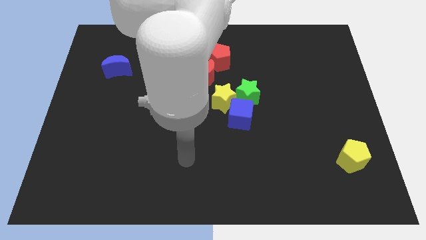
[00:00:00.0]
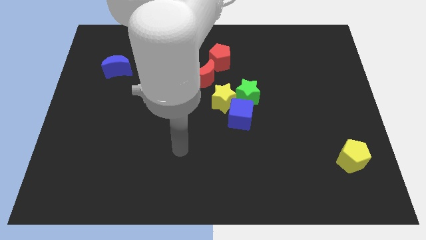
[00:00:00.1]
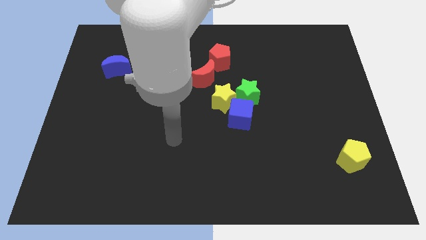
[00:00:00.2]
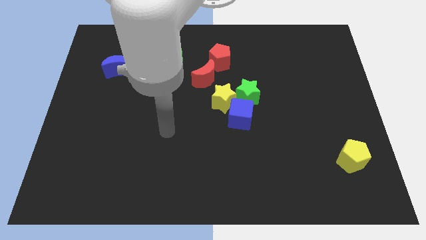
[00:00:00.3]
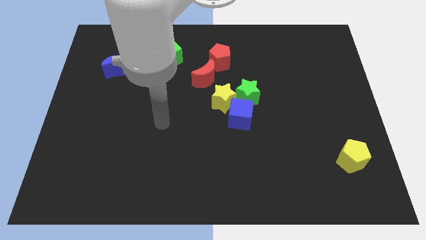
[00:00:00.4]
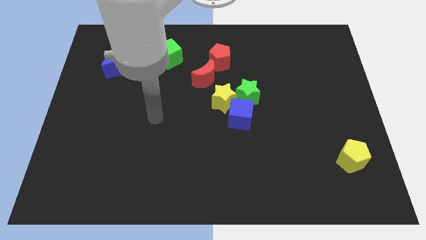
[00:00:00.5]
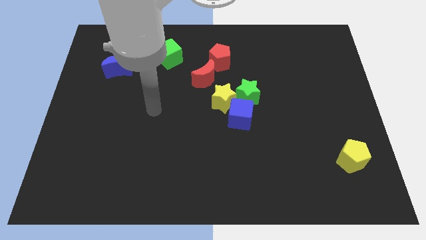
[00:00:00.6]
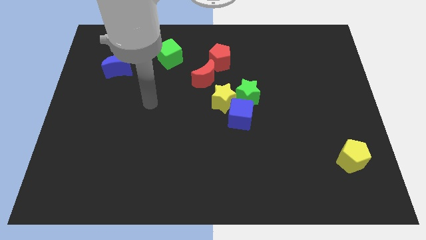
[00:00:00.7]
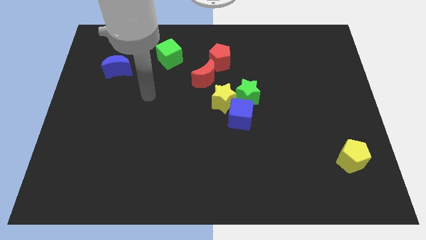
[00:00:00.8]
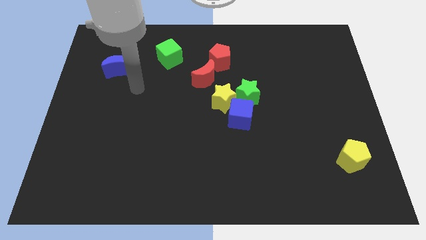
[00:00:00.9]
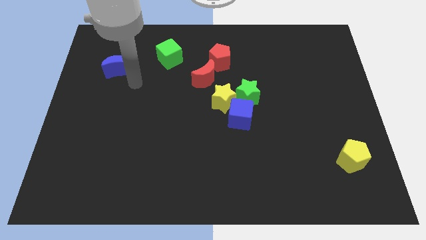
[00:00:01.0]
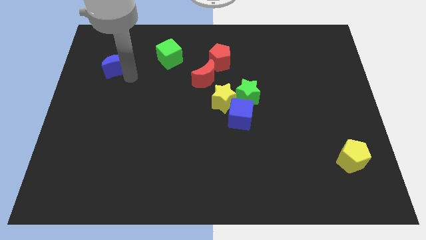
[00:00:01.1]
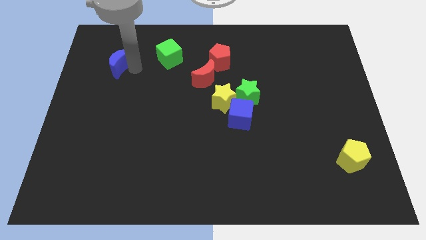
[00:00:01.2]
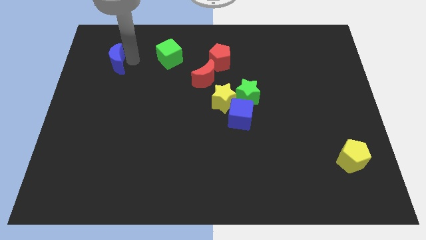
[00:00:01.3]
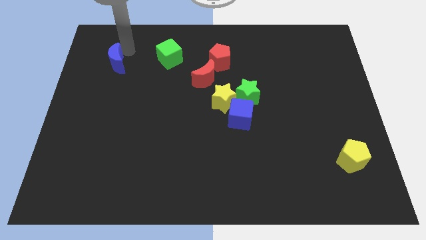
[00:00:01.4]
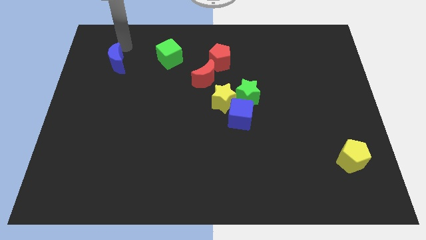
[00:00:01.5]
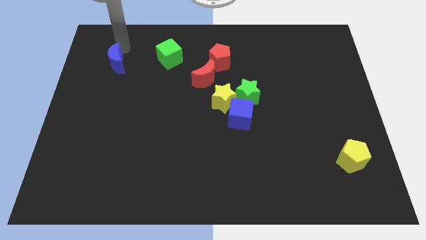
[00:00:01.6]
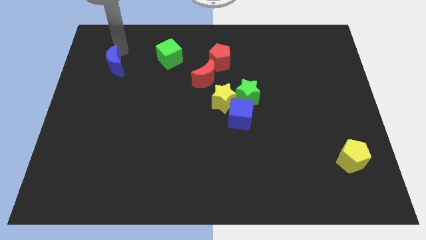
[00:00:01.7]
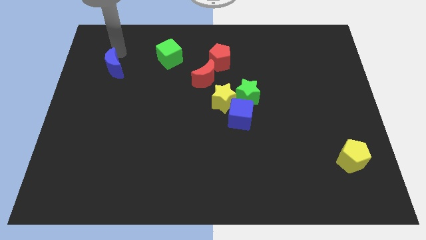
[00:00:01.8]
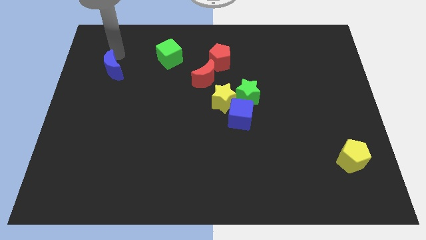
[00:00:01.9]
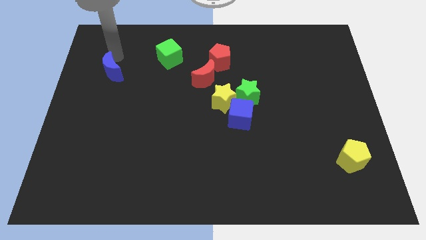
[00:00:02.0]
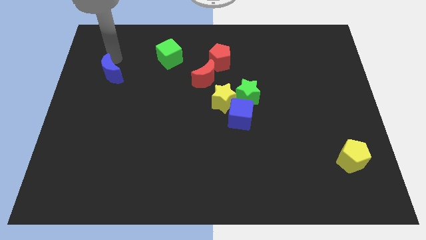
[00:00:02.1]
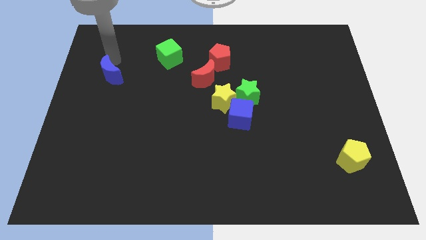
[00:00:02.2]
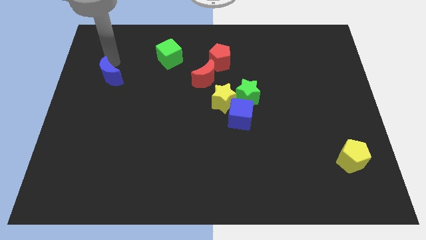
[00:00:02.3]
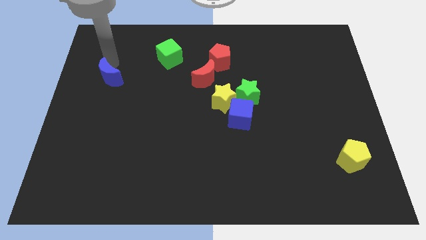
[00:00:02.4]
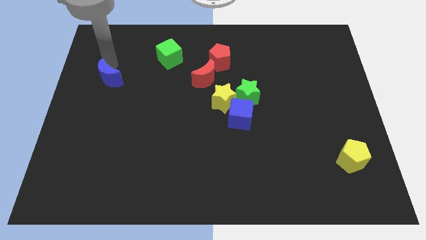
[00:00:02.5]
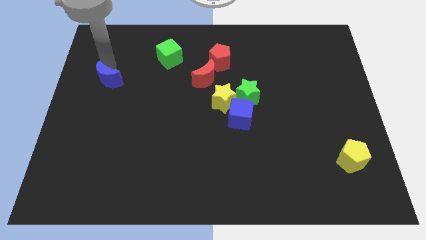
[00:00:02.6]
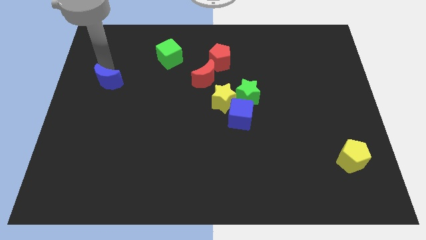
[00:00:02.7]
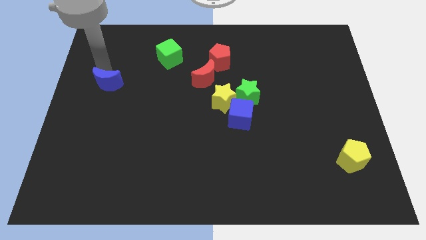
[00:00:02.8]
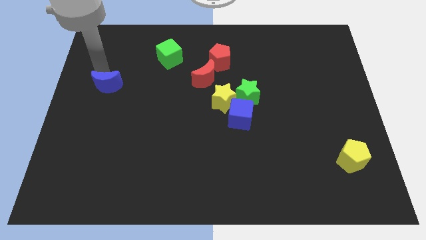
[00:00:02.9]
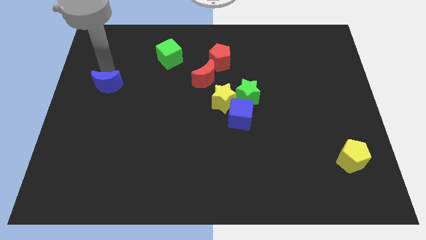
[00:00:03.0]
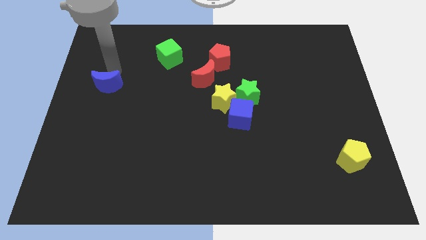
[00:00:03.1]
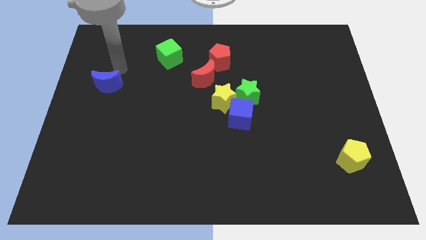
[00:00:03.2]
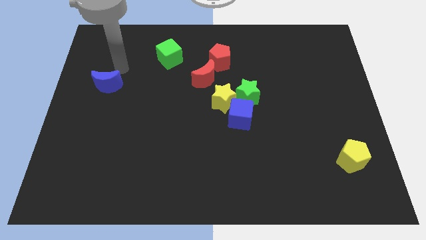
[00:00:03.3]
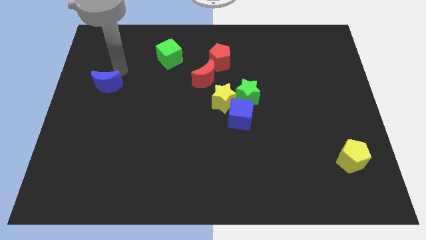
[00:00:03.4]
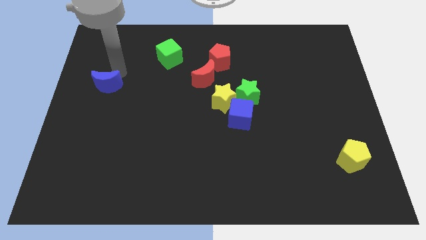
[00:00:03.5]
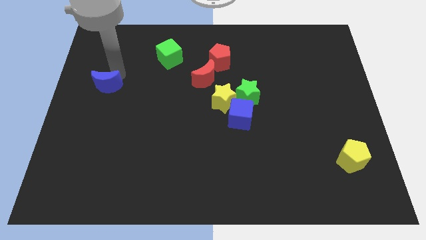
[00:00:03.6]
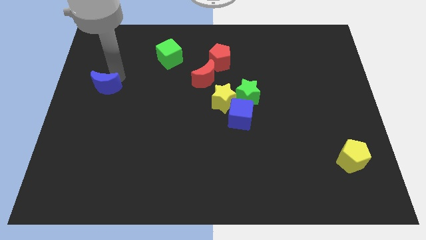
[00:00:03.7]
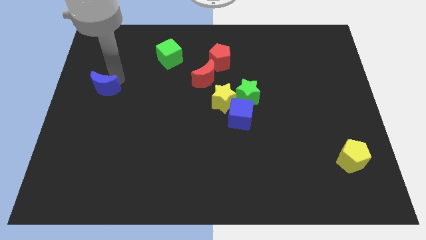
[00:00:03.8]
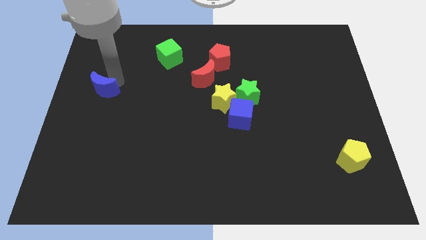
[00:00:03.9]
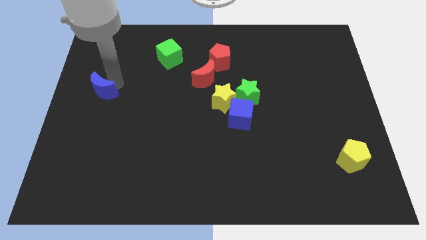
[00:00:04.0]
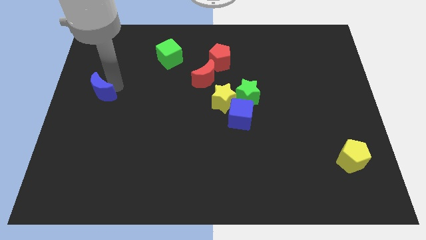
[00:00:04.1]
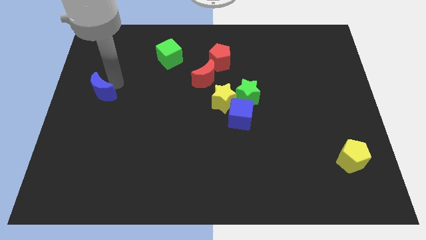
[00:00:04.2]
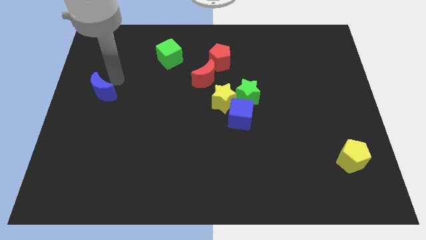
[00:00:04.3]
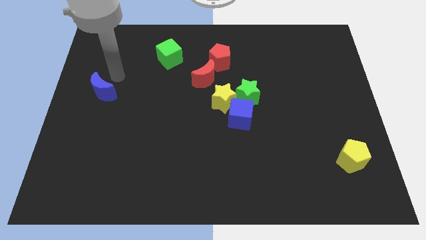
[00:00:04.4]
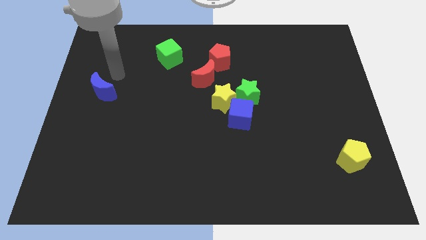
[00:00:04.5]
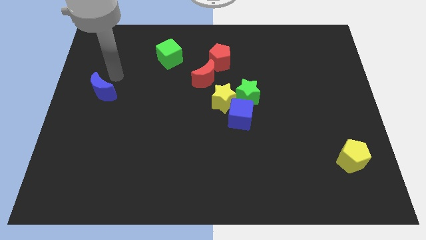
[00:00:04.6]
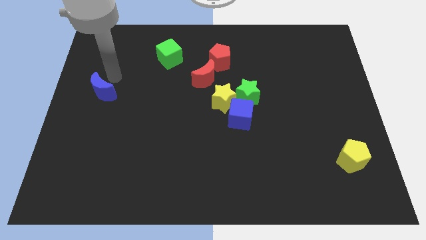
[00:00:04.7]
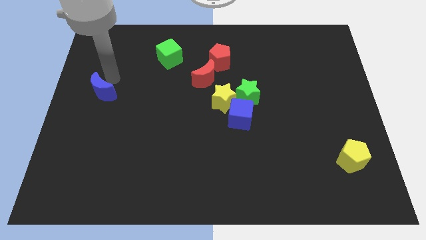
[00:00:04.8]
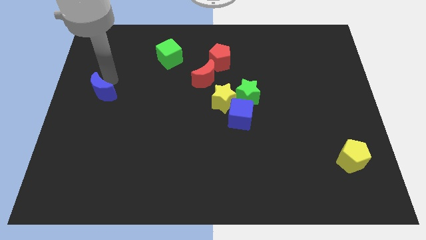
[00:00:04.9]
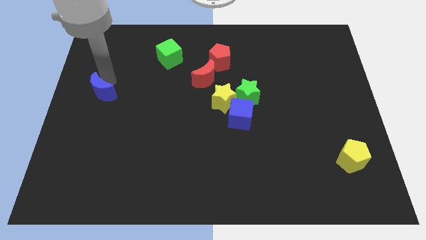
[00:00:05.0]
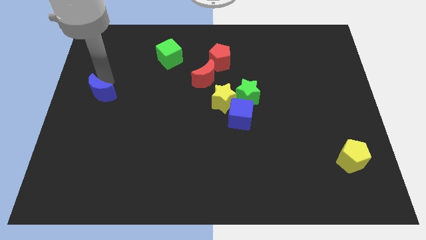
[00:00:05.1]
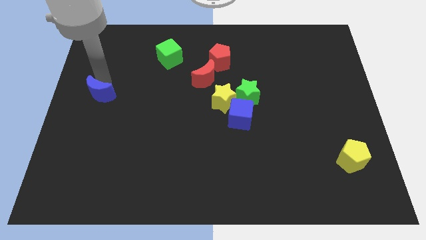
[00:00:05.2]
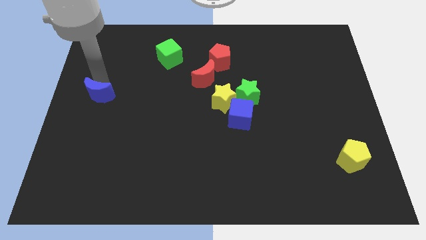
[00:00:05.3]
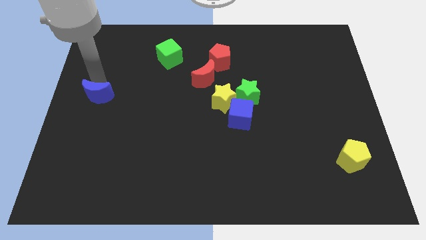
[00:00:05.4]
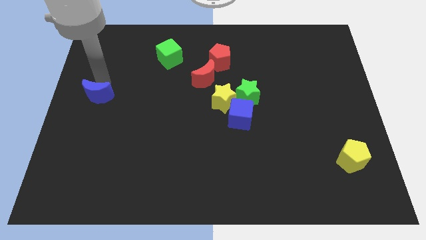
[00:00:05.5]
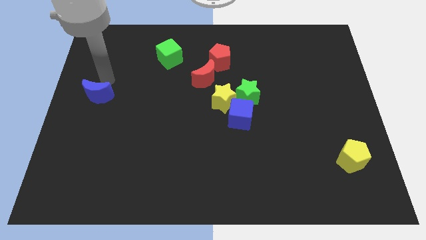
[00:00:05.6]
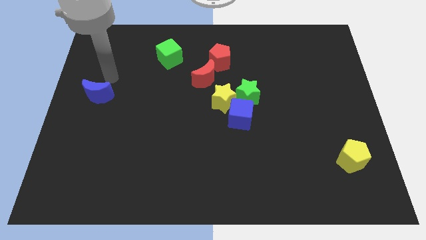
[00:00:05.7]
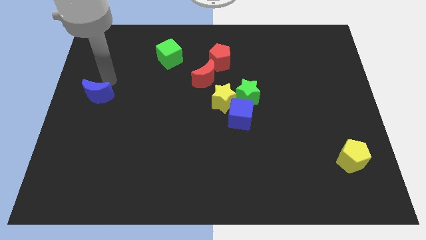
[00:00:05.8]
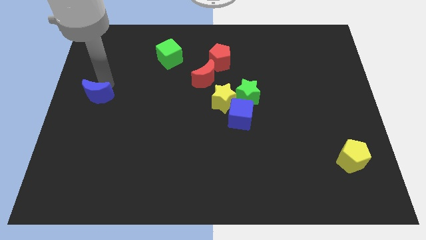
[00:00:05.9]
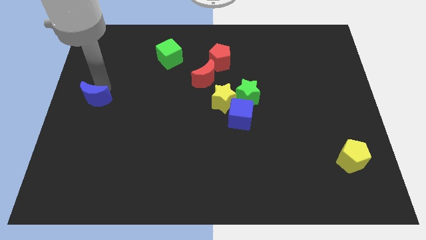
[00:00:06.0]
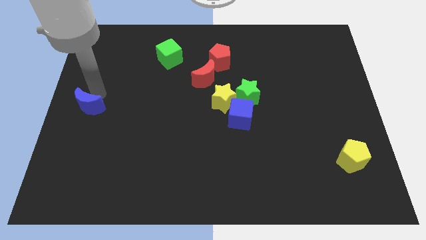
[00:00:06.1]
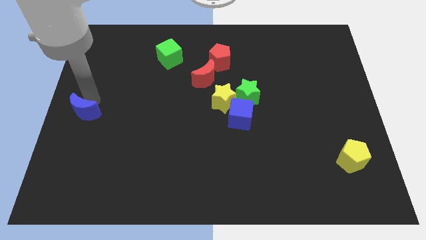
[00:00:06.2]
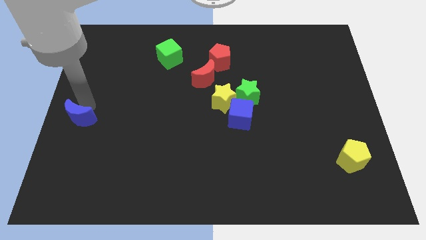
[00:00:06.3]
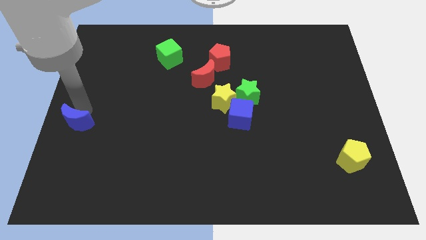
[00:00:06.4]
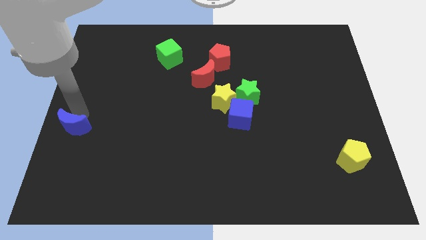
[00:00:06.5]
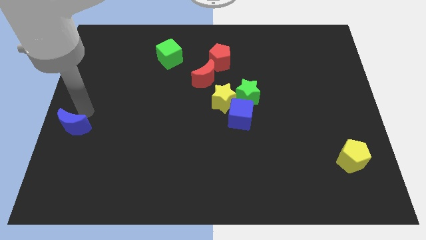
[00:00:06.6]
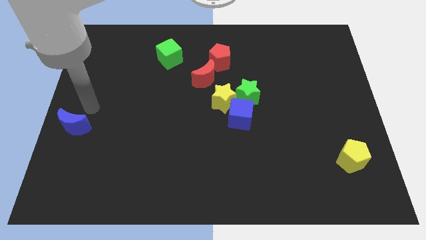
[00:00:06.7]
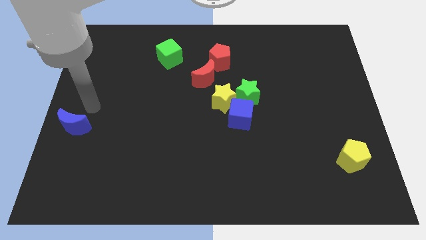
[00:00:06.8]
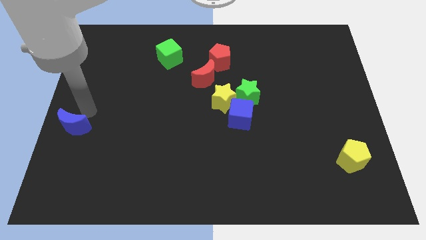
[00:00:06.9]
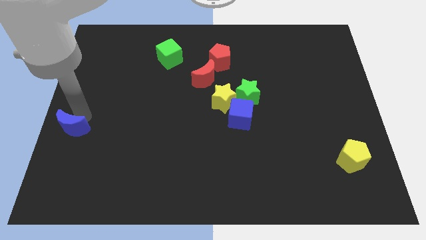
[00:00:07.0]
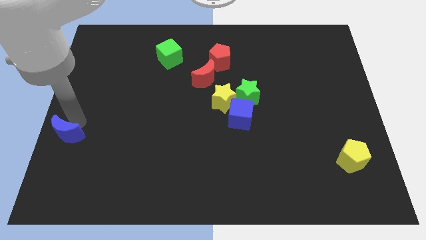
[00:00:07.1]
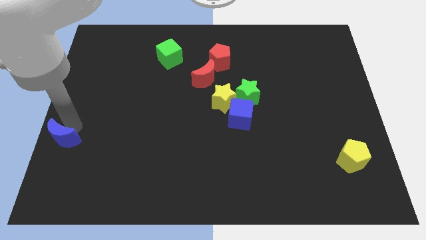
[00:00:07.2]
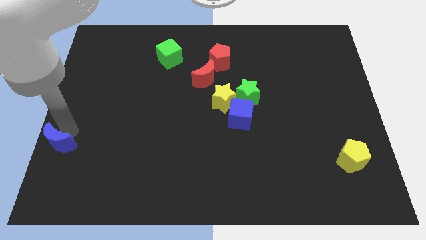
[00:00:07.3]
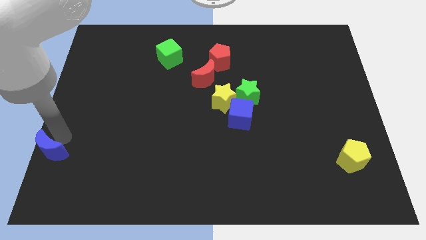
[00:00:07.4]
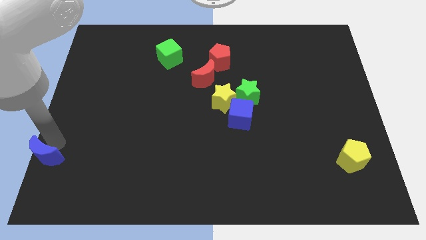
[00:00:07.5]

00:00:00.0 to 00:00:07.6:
put the blue moon to the bottom left
